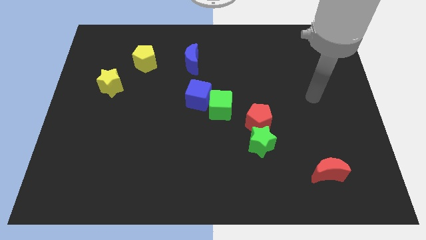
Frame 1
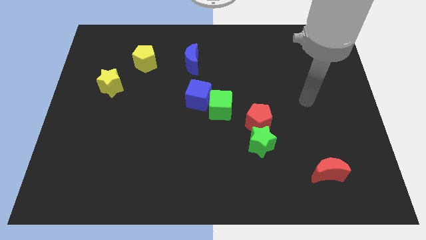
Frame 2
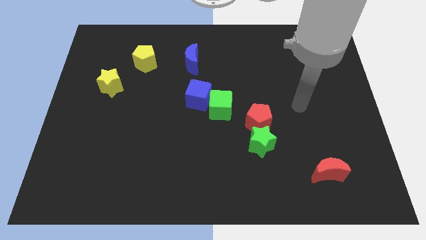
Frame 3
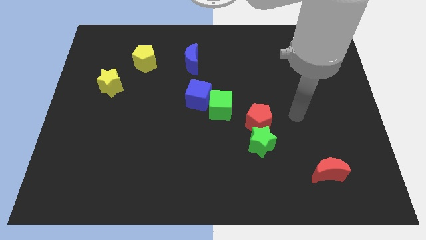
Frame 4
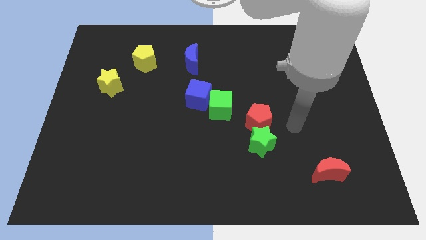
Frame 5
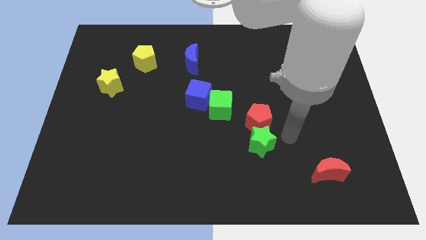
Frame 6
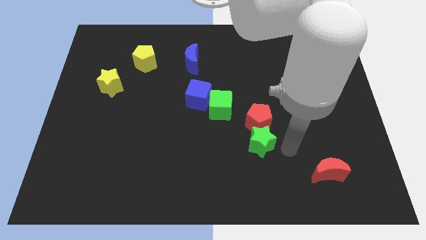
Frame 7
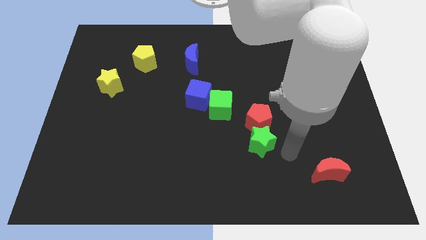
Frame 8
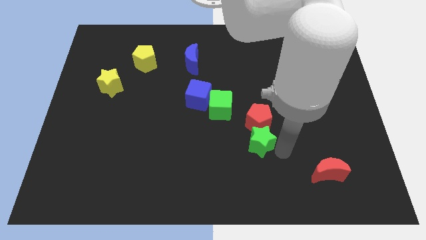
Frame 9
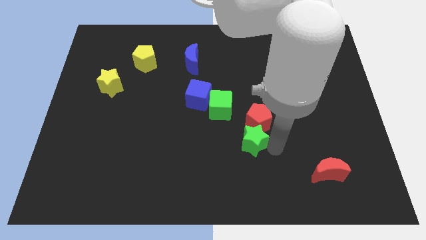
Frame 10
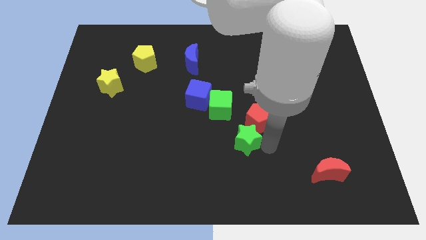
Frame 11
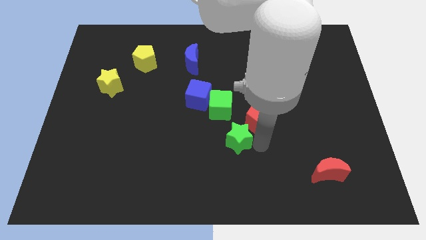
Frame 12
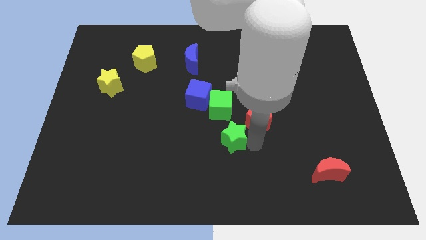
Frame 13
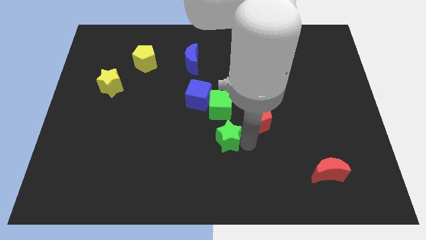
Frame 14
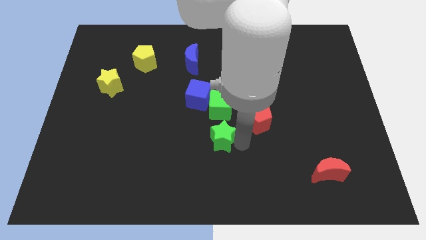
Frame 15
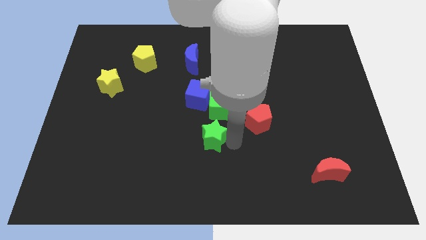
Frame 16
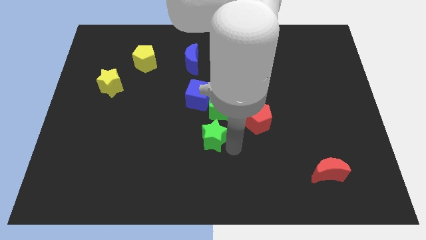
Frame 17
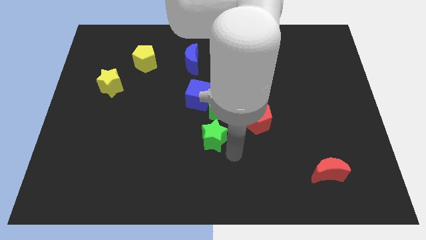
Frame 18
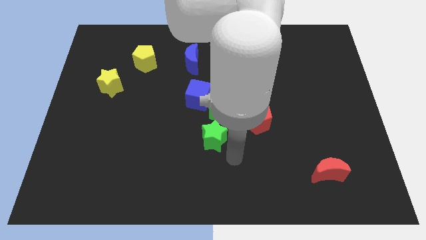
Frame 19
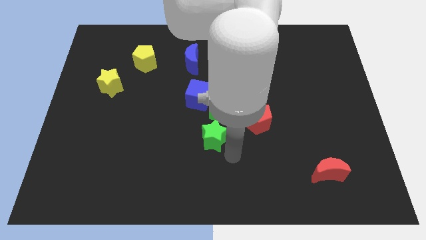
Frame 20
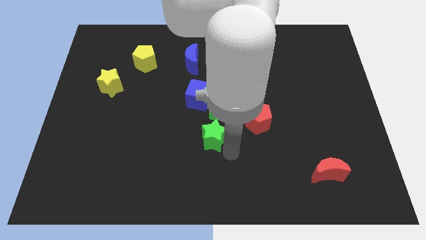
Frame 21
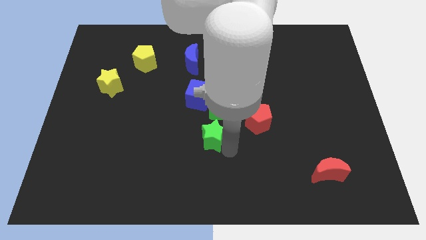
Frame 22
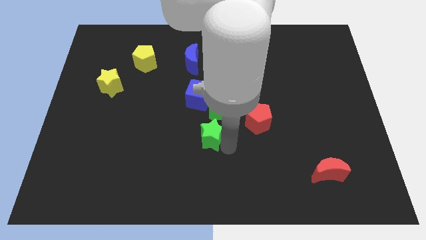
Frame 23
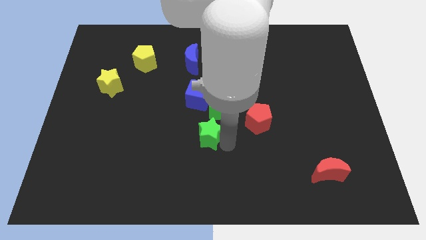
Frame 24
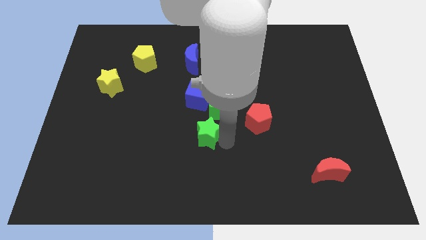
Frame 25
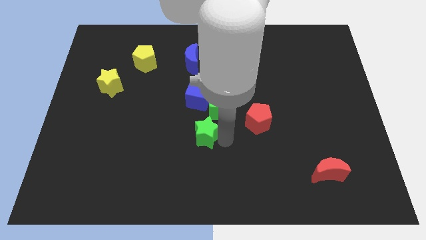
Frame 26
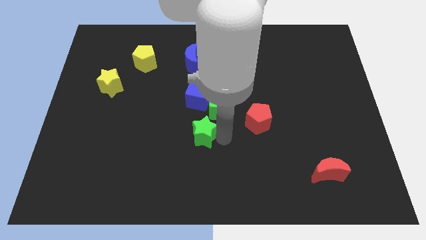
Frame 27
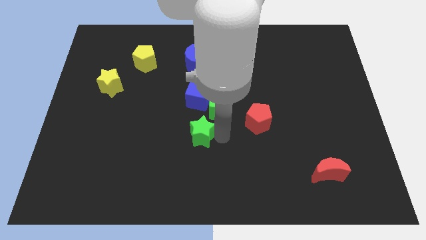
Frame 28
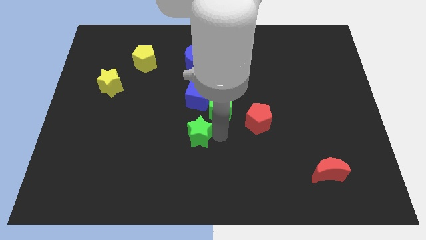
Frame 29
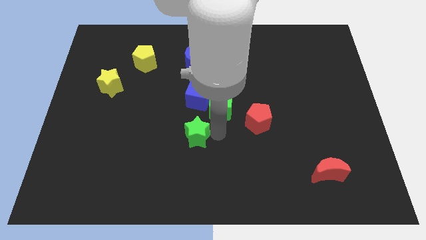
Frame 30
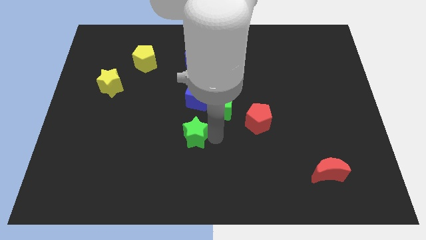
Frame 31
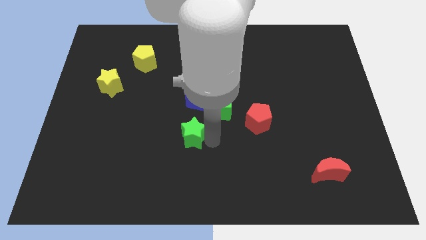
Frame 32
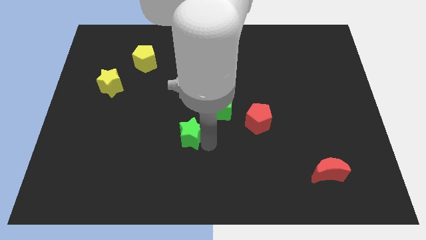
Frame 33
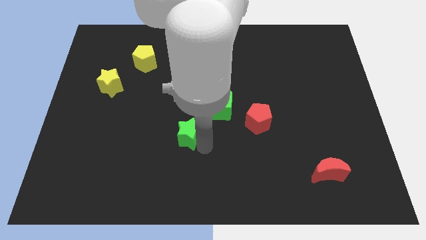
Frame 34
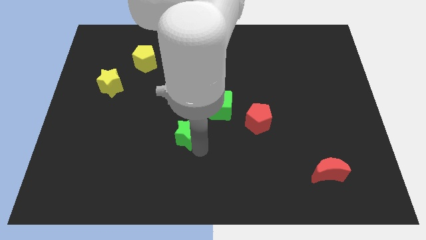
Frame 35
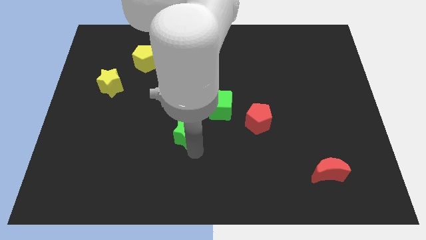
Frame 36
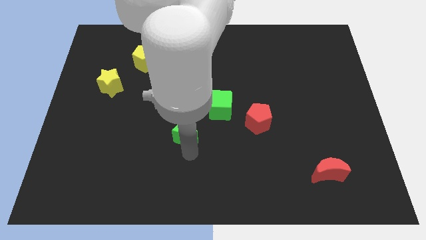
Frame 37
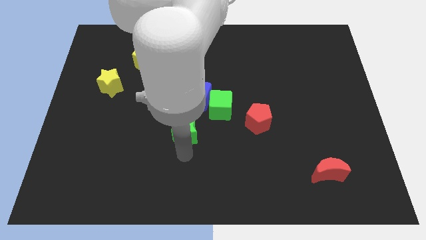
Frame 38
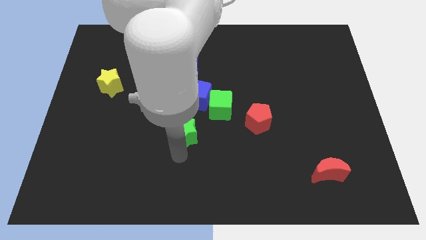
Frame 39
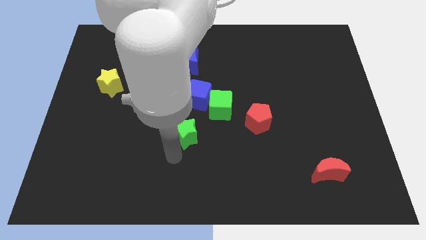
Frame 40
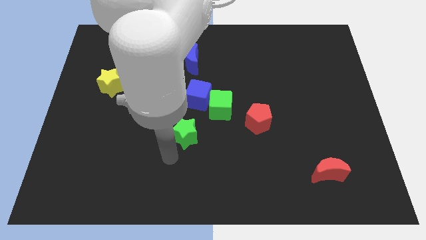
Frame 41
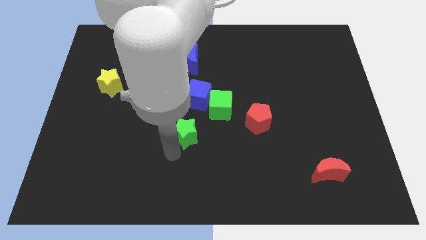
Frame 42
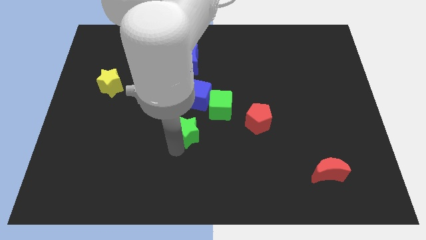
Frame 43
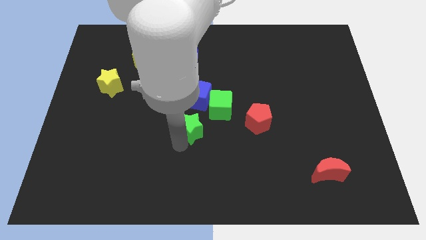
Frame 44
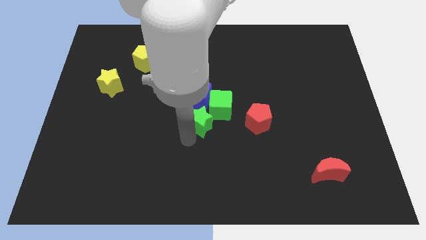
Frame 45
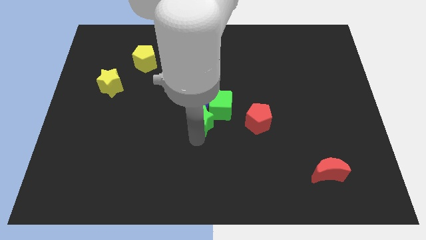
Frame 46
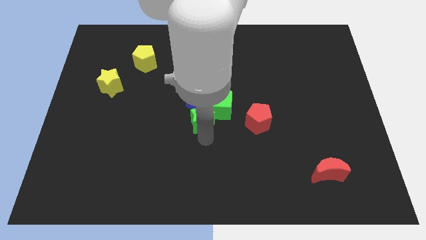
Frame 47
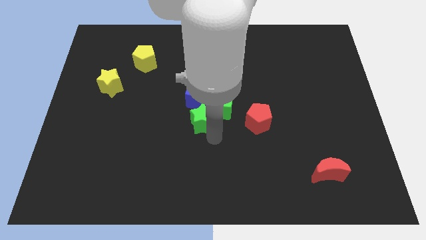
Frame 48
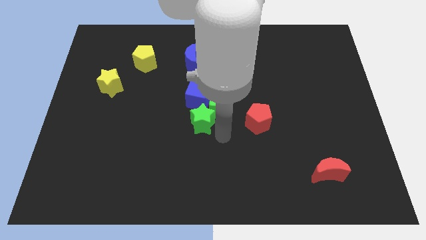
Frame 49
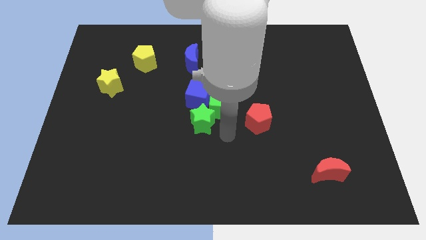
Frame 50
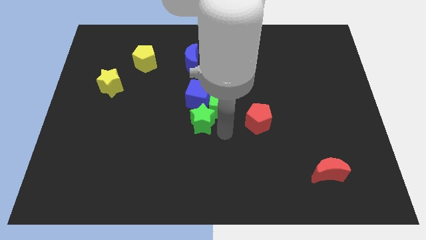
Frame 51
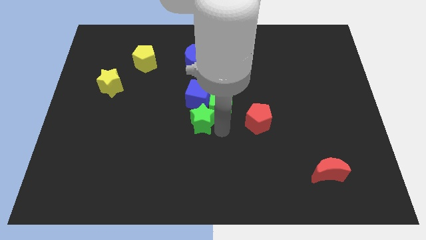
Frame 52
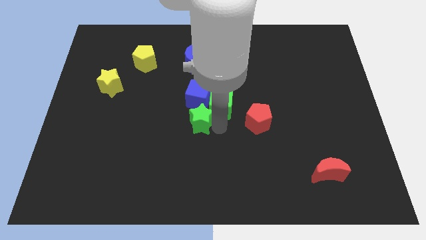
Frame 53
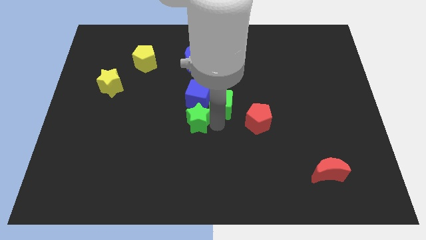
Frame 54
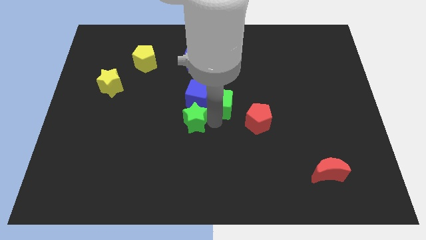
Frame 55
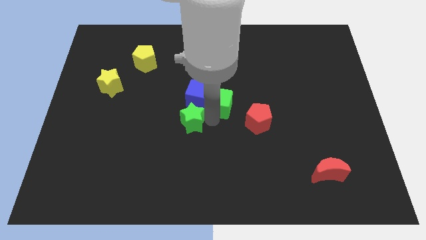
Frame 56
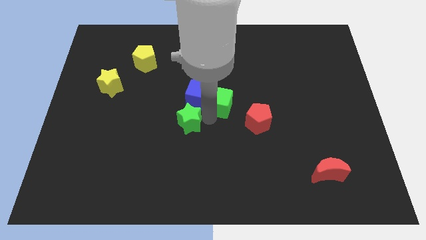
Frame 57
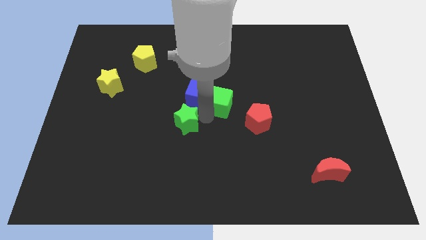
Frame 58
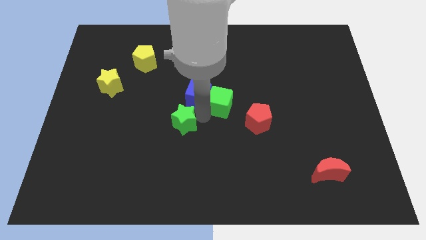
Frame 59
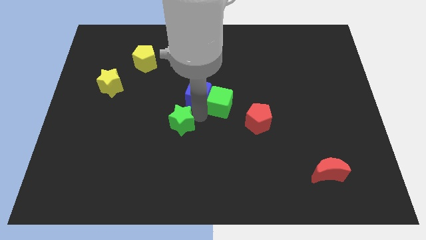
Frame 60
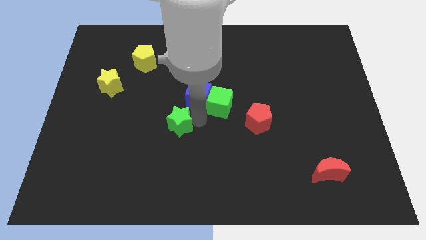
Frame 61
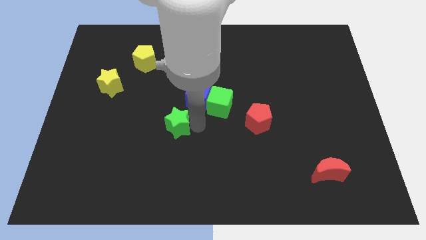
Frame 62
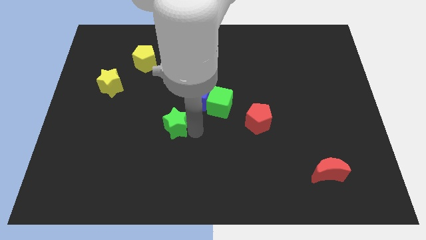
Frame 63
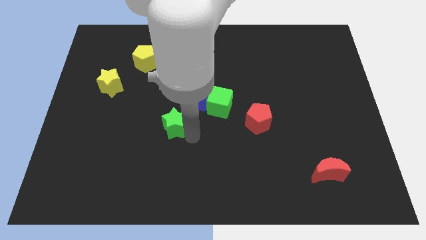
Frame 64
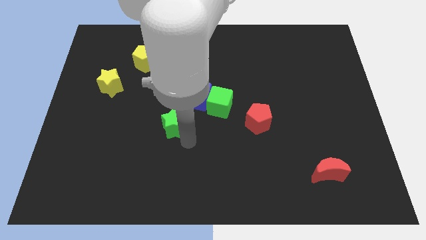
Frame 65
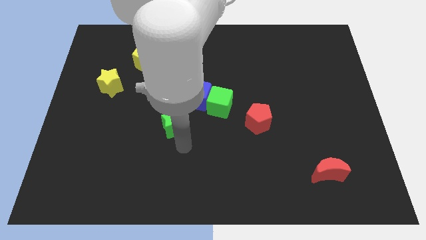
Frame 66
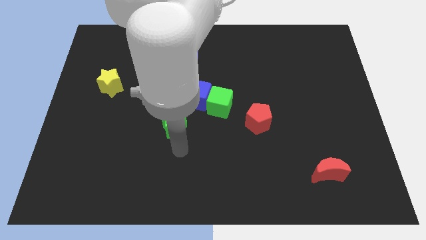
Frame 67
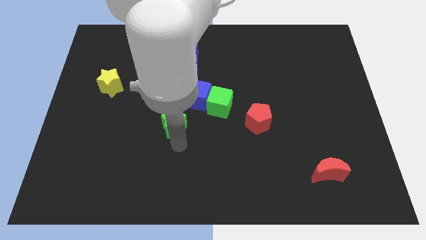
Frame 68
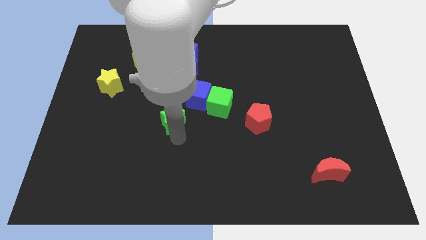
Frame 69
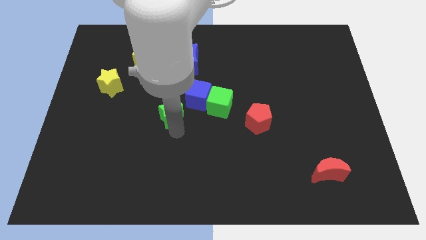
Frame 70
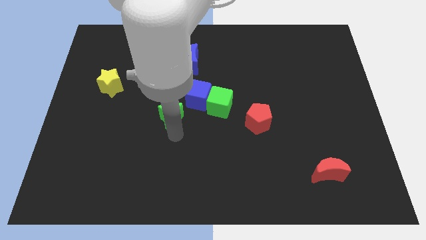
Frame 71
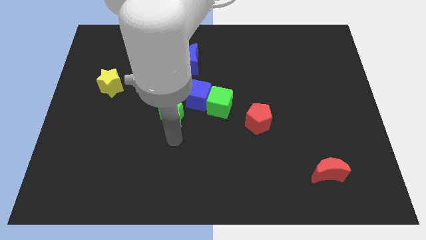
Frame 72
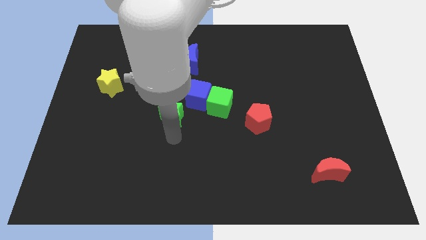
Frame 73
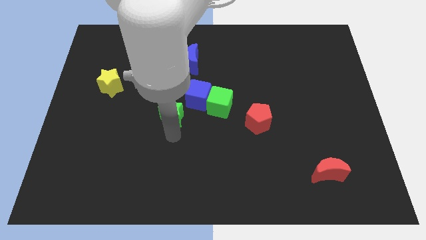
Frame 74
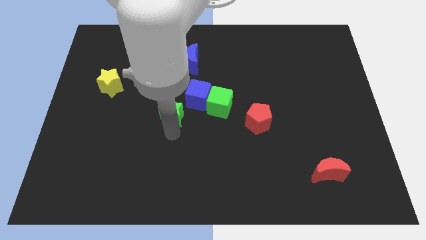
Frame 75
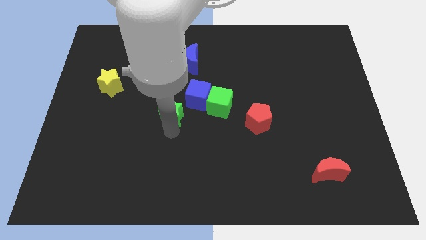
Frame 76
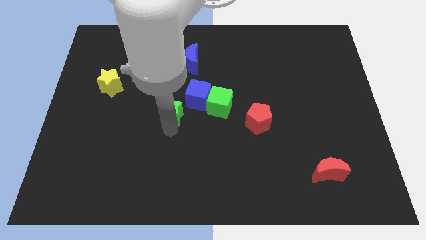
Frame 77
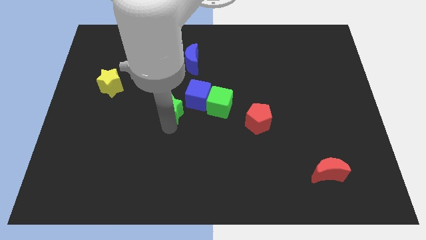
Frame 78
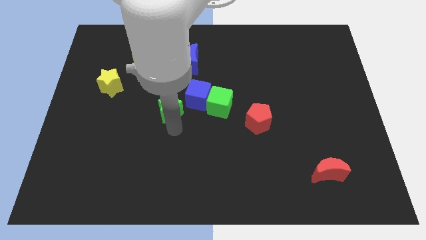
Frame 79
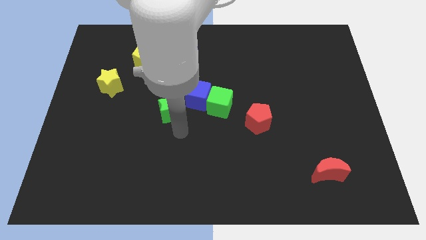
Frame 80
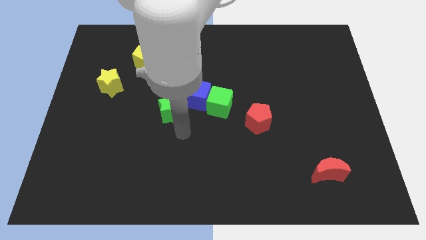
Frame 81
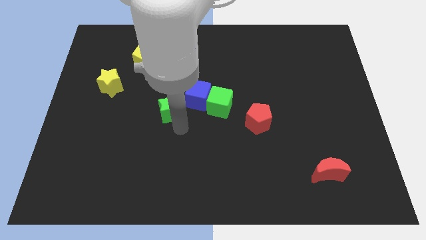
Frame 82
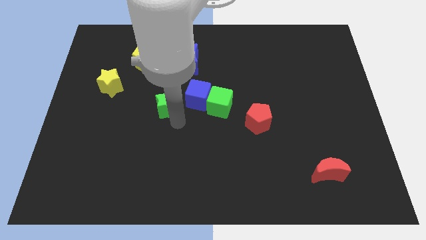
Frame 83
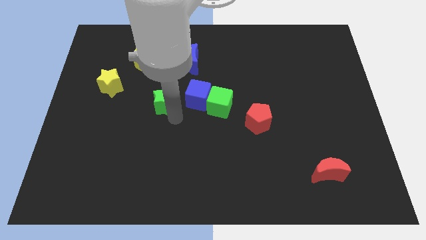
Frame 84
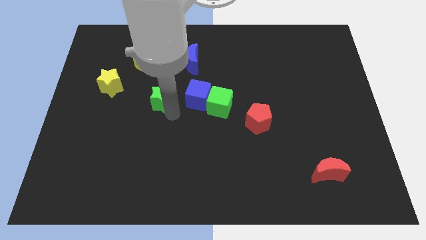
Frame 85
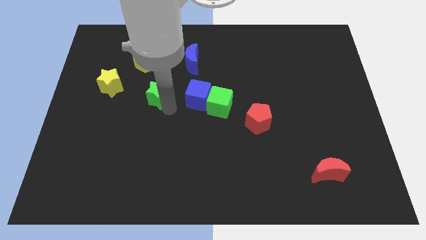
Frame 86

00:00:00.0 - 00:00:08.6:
slide the green star just right of the yellow star
